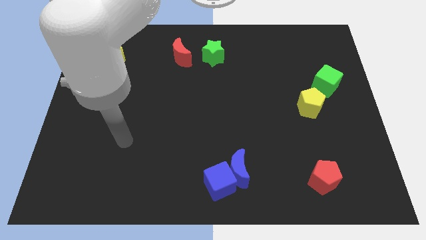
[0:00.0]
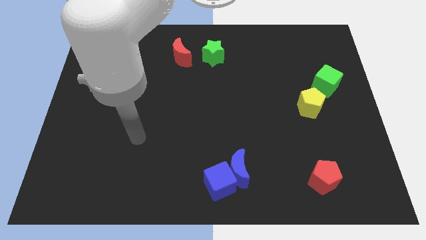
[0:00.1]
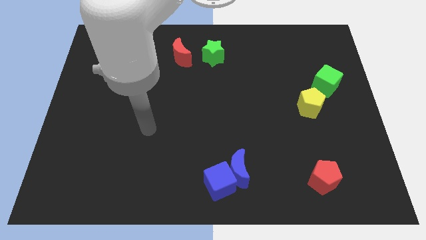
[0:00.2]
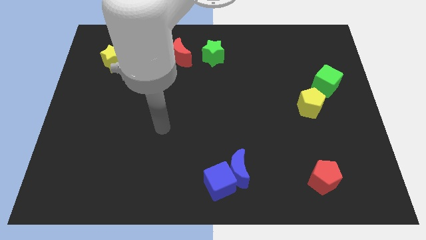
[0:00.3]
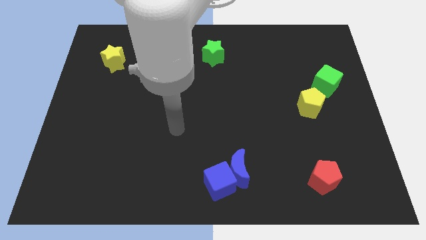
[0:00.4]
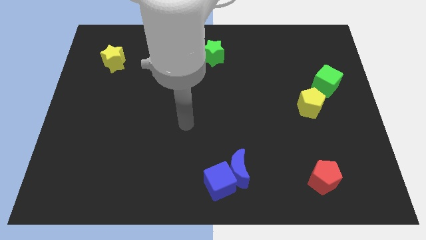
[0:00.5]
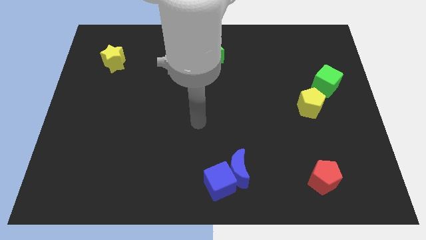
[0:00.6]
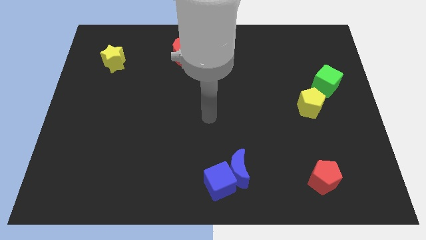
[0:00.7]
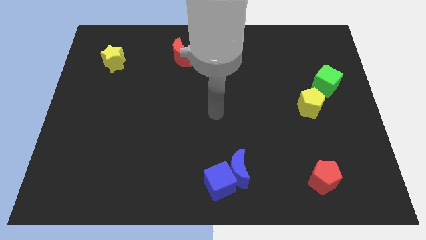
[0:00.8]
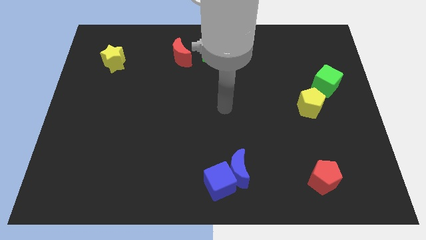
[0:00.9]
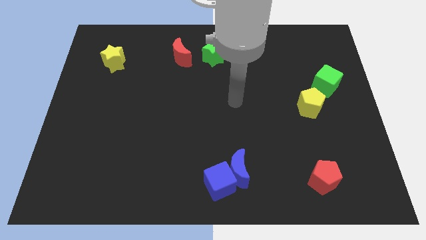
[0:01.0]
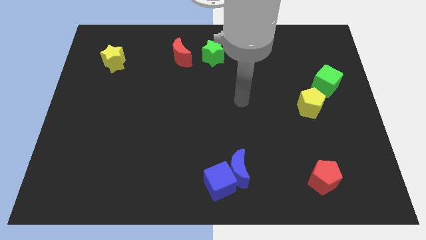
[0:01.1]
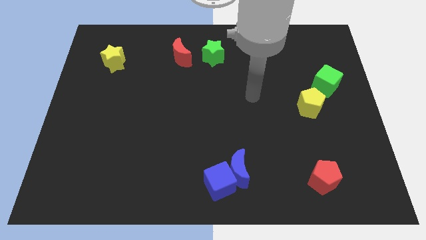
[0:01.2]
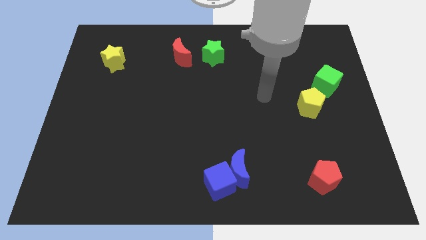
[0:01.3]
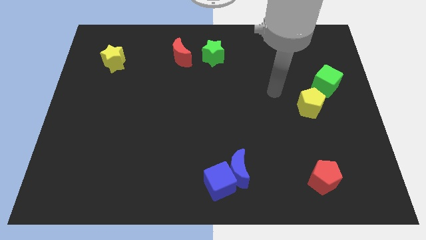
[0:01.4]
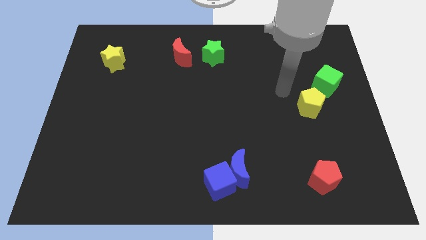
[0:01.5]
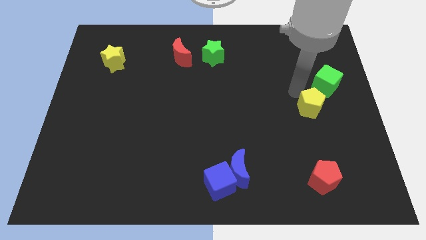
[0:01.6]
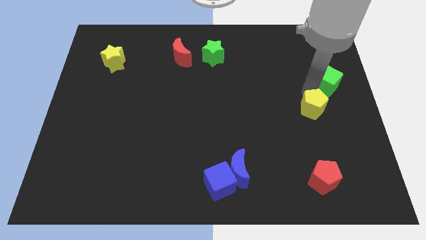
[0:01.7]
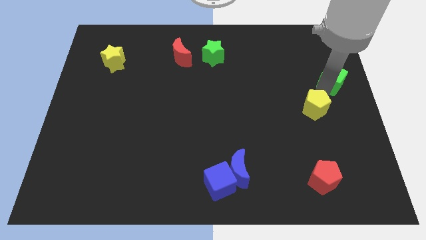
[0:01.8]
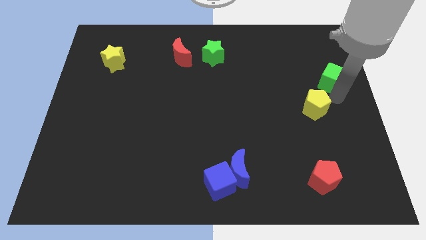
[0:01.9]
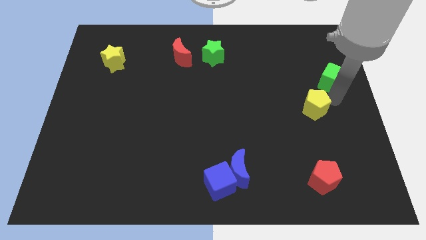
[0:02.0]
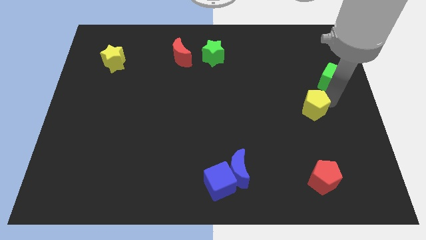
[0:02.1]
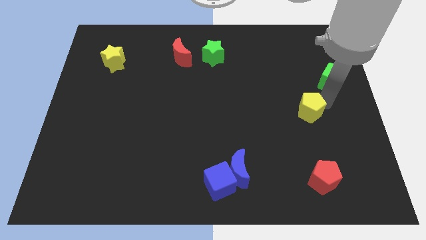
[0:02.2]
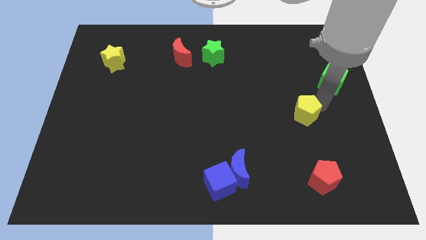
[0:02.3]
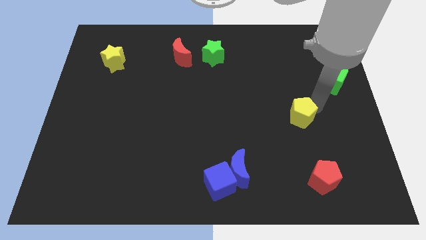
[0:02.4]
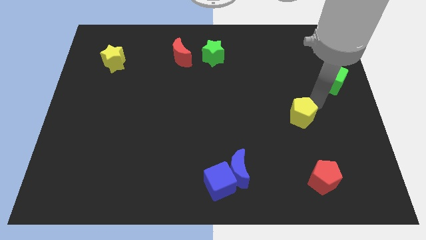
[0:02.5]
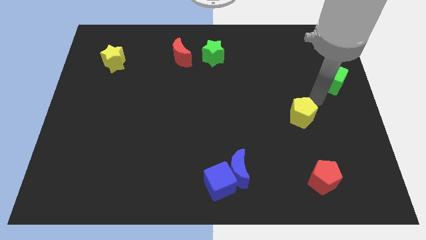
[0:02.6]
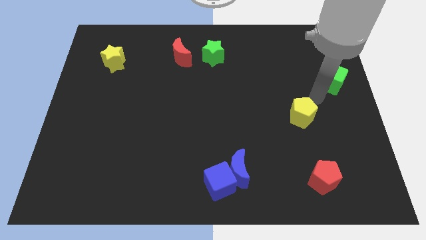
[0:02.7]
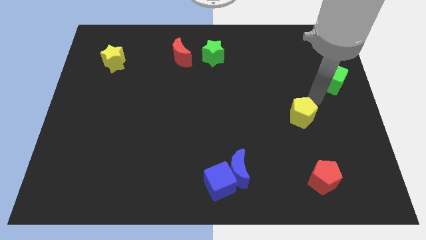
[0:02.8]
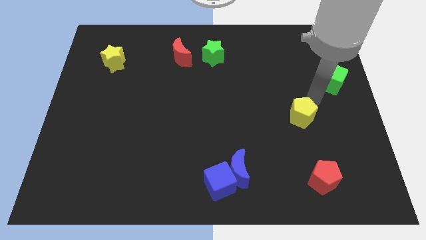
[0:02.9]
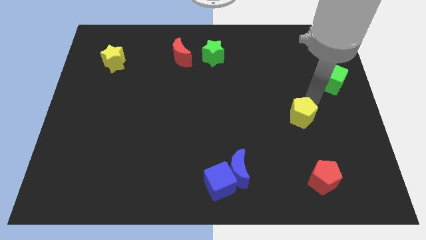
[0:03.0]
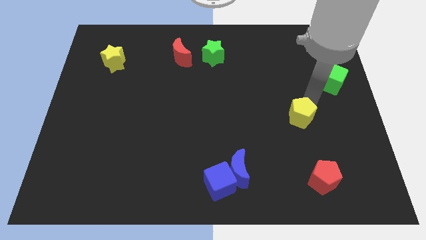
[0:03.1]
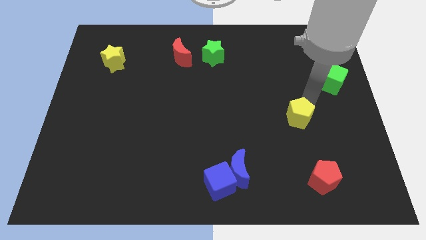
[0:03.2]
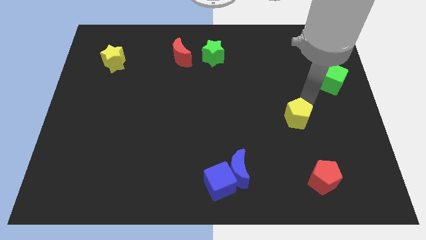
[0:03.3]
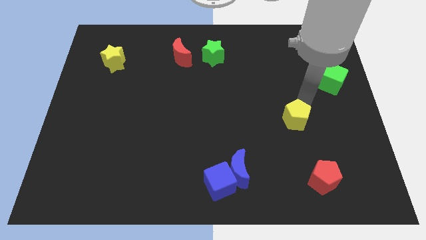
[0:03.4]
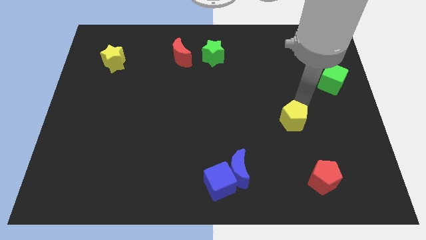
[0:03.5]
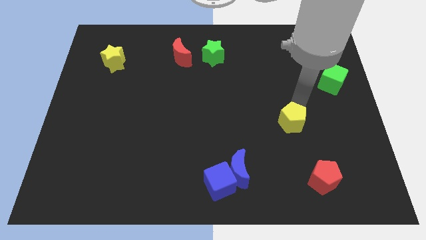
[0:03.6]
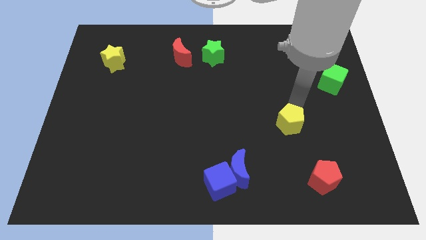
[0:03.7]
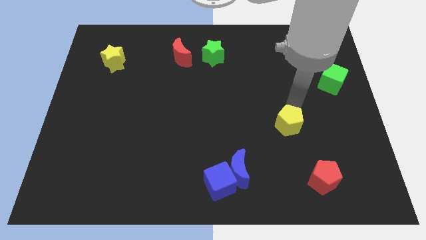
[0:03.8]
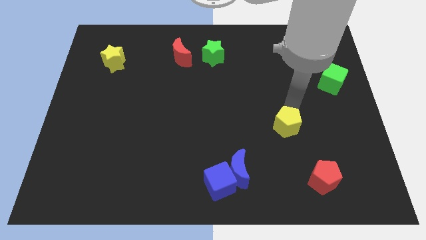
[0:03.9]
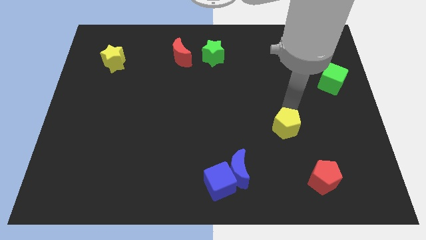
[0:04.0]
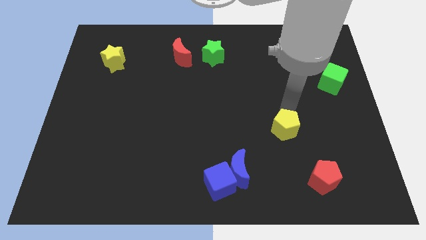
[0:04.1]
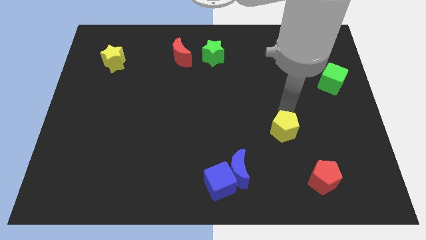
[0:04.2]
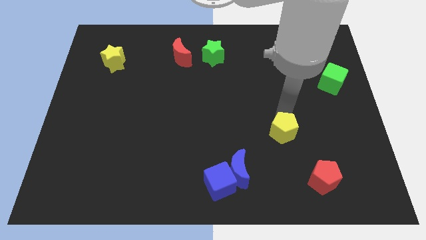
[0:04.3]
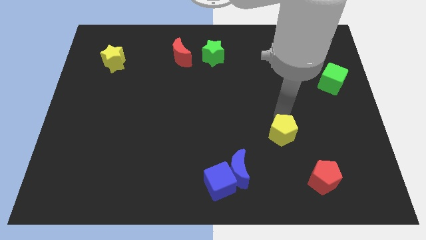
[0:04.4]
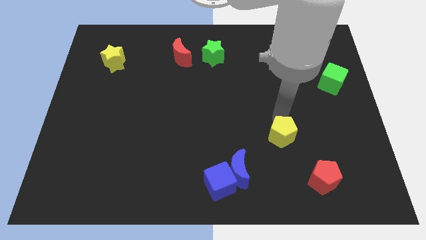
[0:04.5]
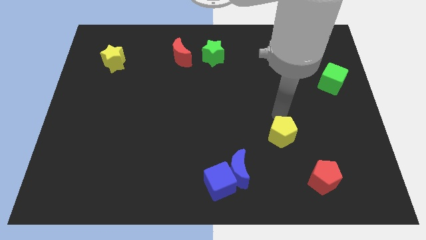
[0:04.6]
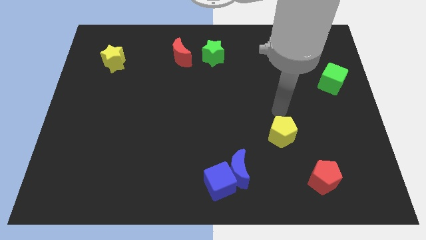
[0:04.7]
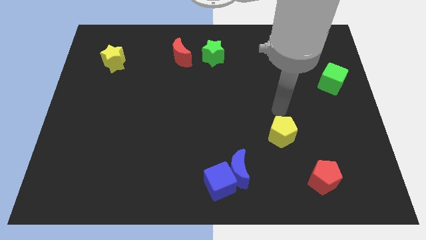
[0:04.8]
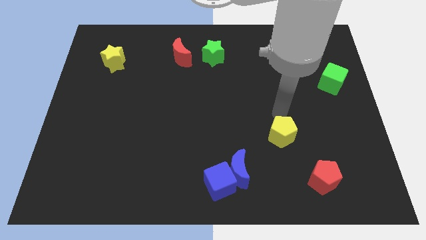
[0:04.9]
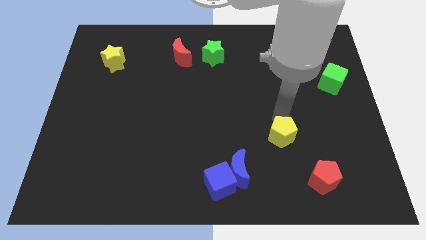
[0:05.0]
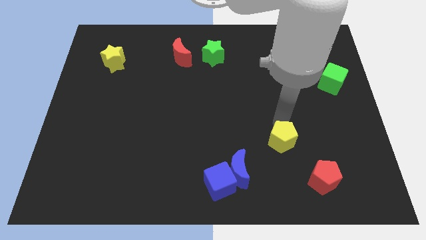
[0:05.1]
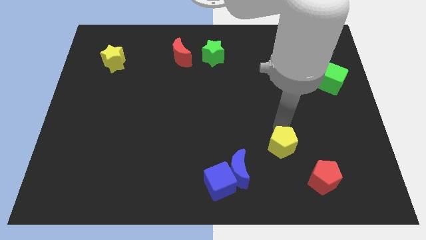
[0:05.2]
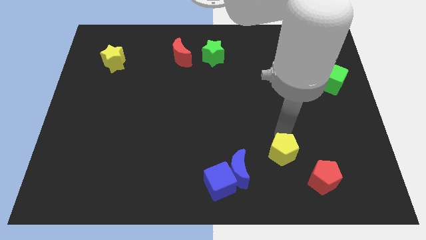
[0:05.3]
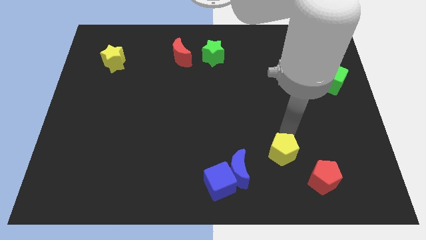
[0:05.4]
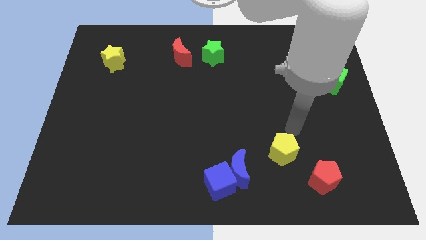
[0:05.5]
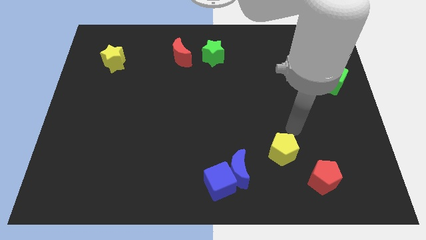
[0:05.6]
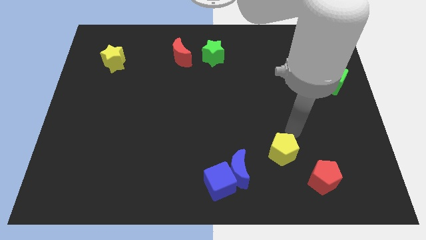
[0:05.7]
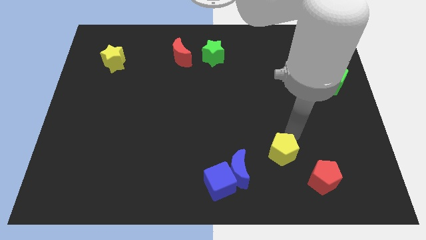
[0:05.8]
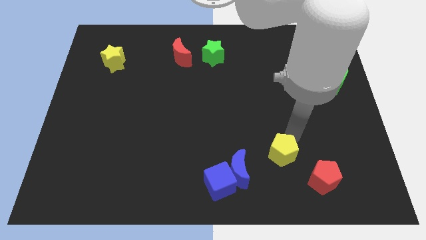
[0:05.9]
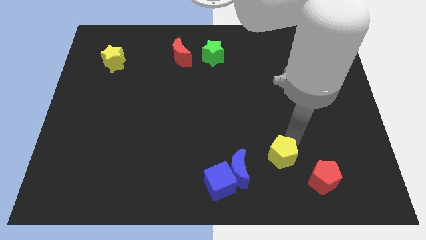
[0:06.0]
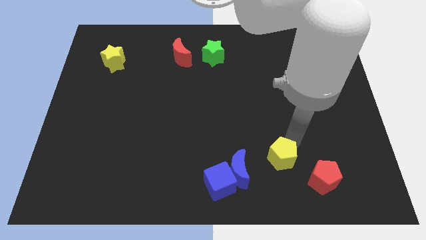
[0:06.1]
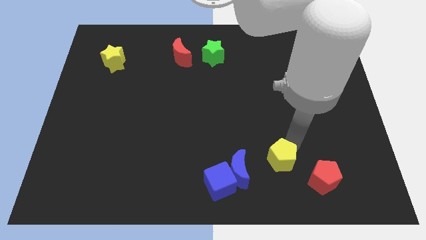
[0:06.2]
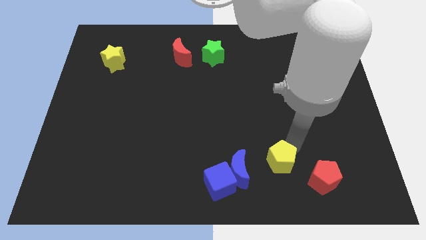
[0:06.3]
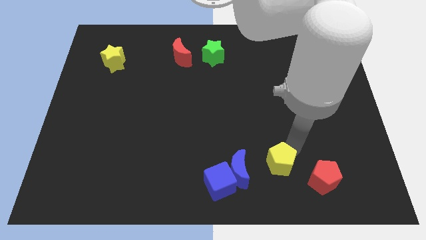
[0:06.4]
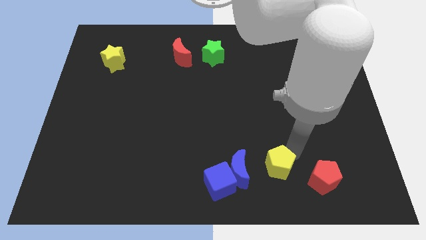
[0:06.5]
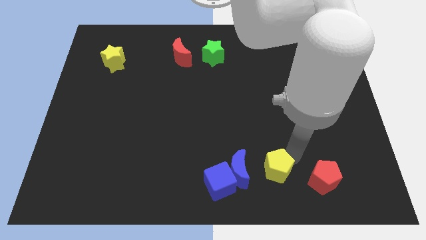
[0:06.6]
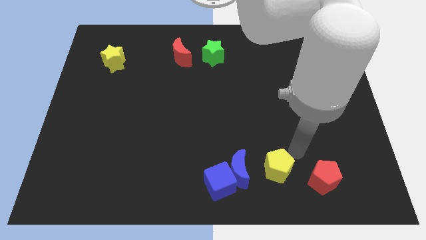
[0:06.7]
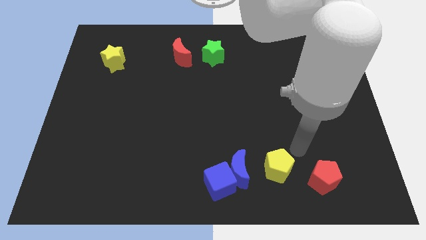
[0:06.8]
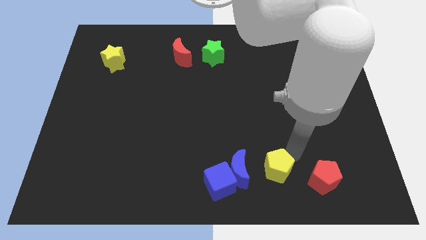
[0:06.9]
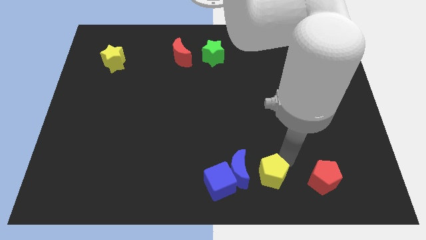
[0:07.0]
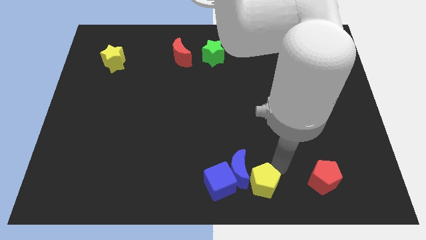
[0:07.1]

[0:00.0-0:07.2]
put the yellow pentagon to the bottom
